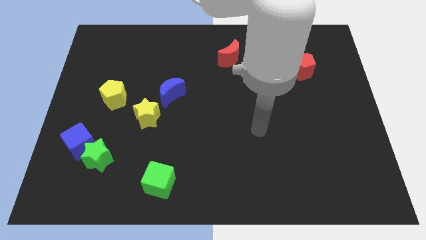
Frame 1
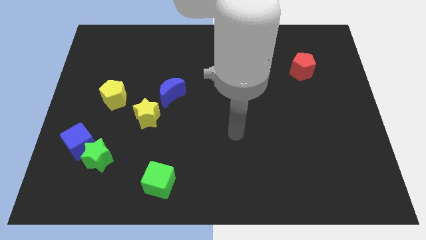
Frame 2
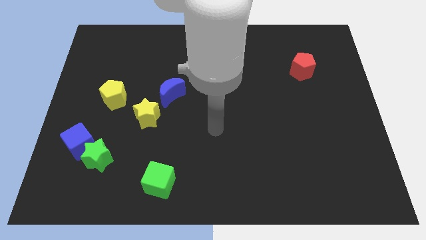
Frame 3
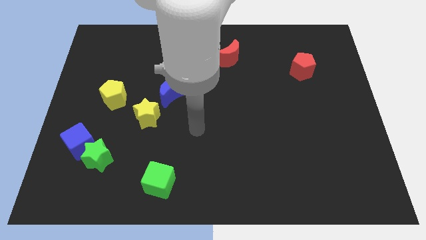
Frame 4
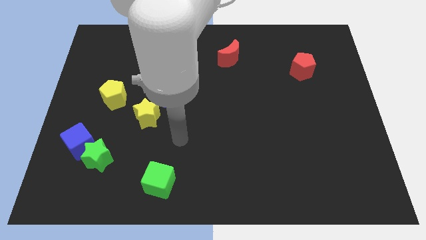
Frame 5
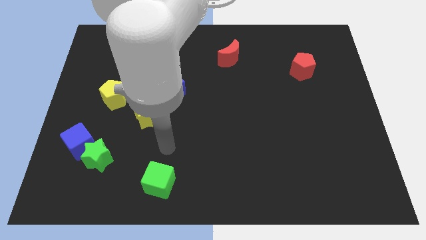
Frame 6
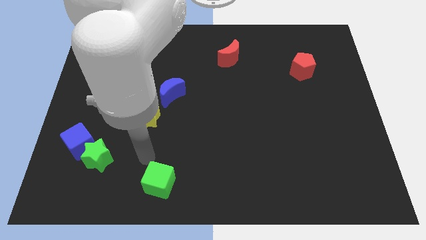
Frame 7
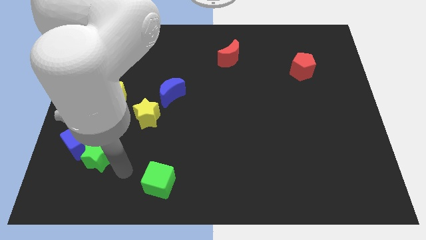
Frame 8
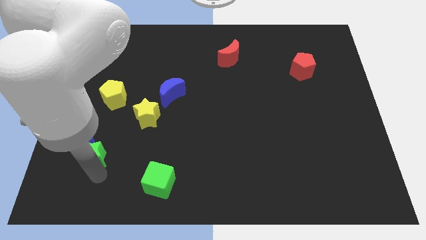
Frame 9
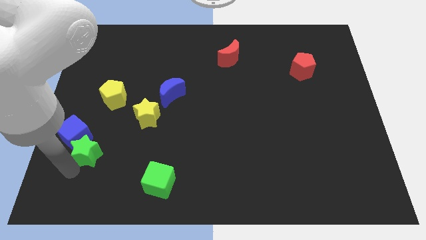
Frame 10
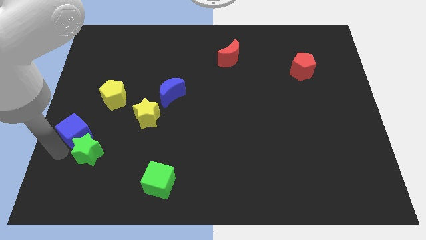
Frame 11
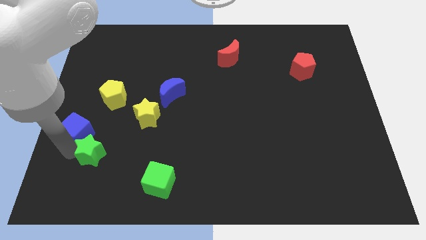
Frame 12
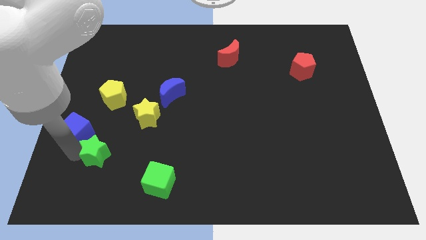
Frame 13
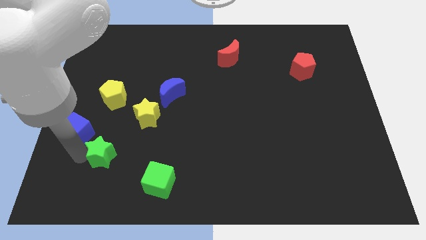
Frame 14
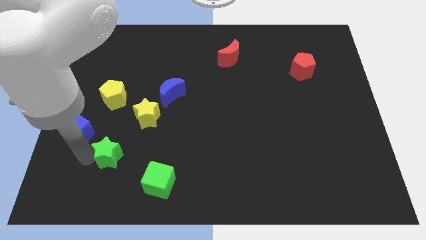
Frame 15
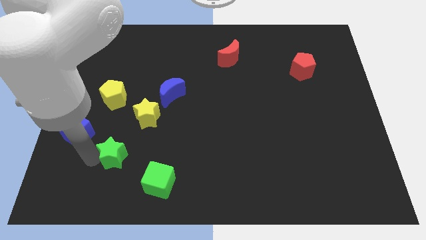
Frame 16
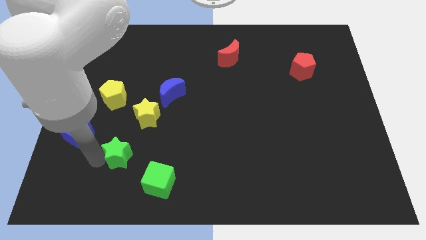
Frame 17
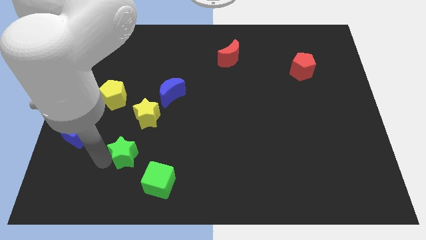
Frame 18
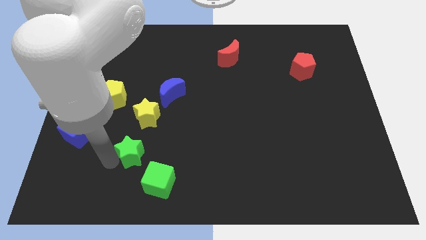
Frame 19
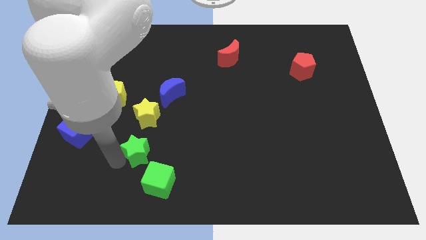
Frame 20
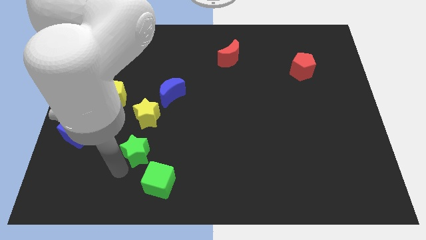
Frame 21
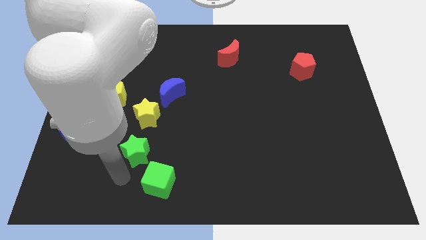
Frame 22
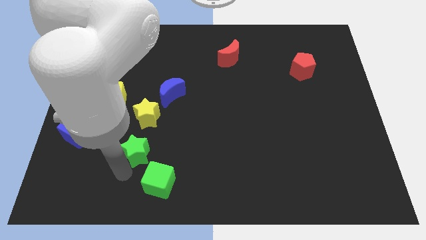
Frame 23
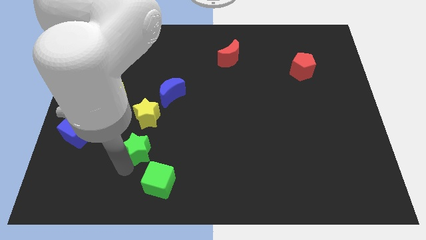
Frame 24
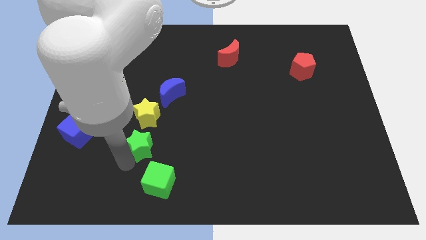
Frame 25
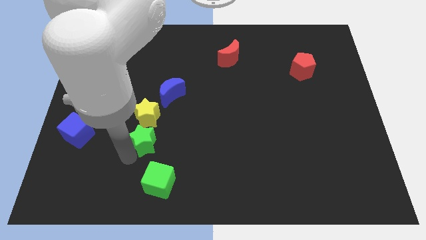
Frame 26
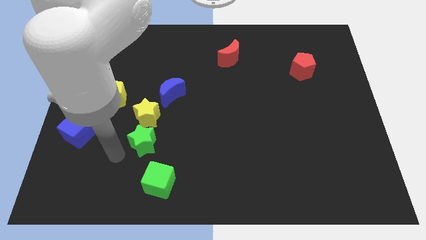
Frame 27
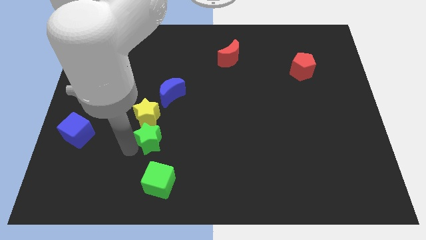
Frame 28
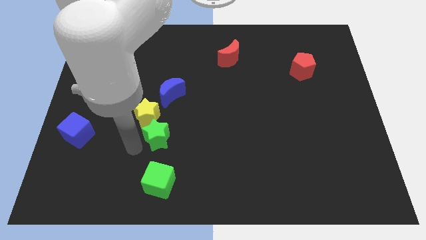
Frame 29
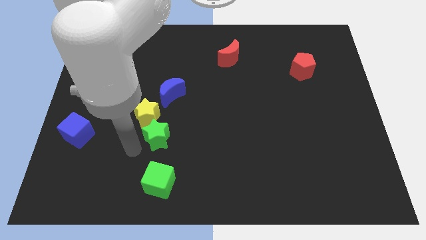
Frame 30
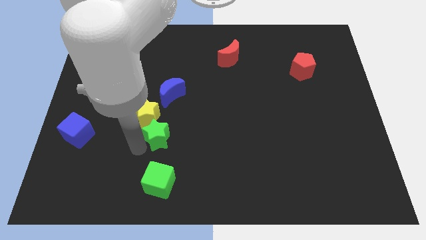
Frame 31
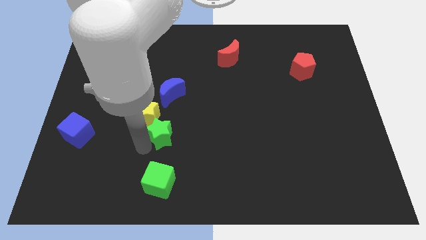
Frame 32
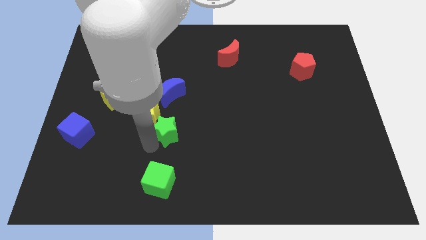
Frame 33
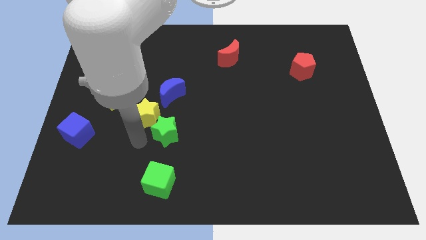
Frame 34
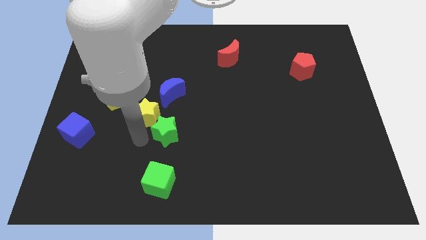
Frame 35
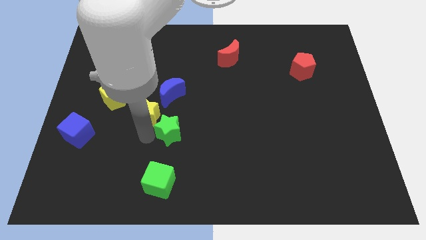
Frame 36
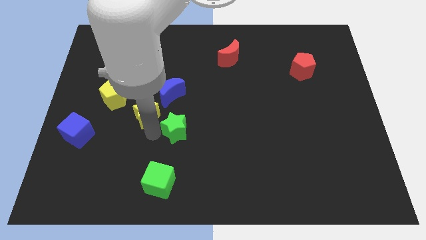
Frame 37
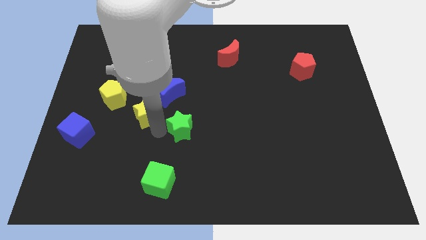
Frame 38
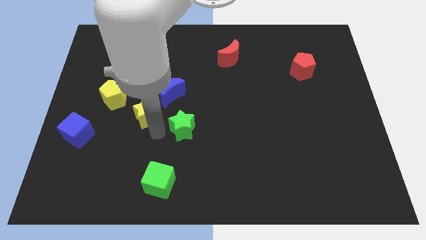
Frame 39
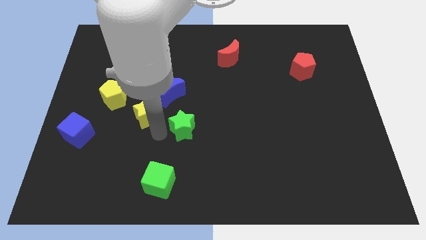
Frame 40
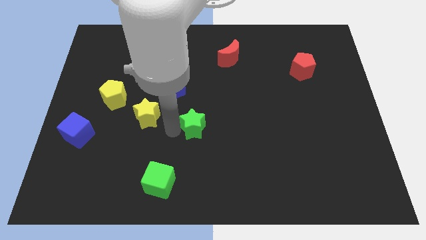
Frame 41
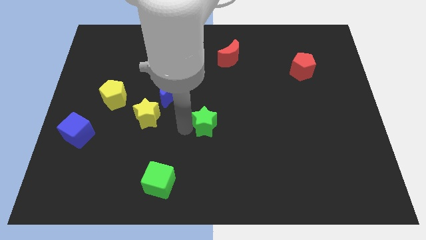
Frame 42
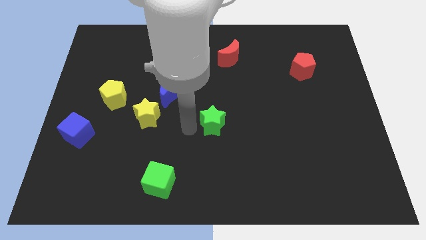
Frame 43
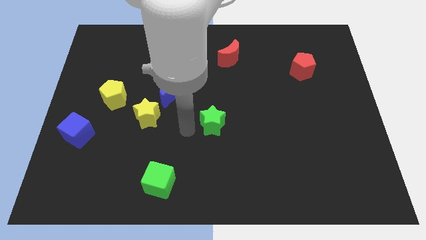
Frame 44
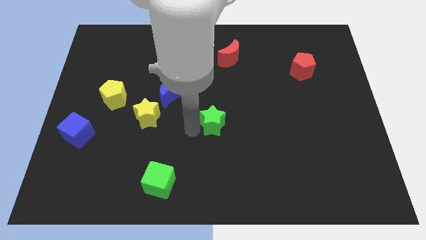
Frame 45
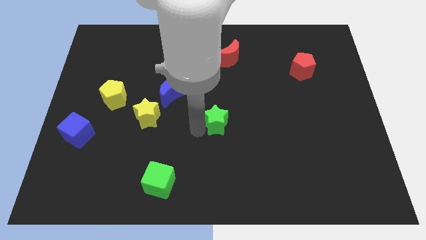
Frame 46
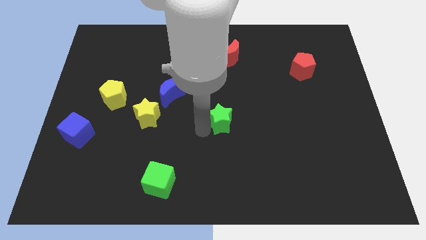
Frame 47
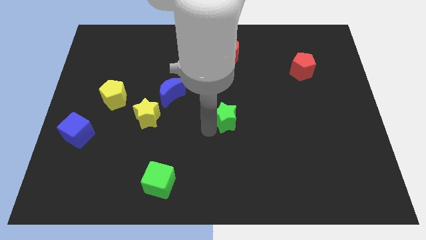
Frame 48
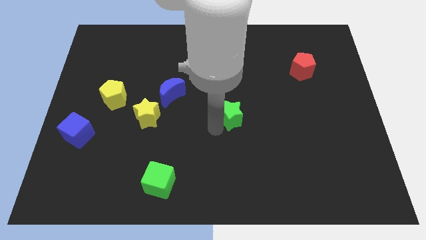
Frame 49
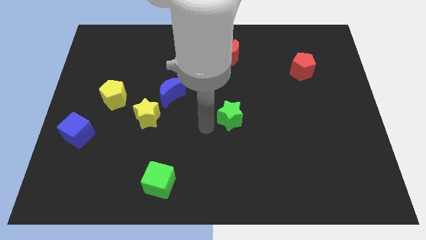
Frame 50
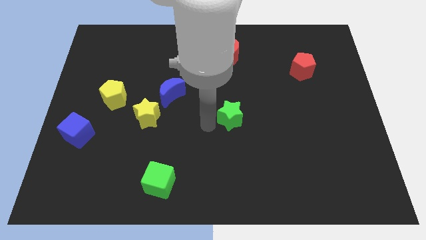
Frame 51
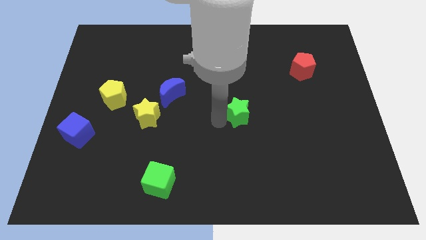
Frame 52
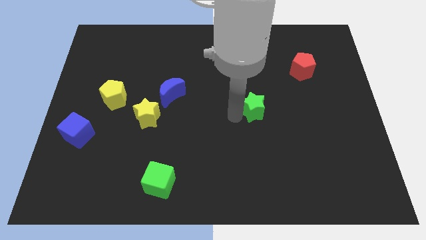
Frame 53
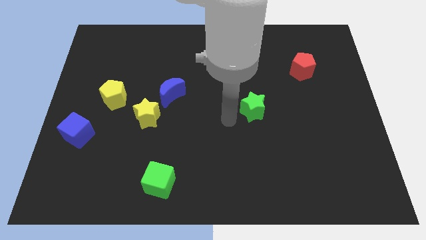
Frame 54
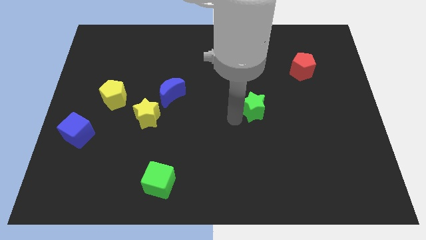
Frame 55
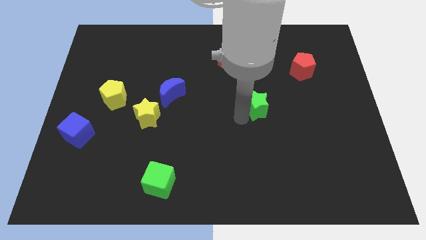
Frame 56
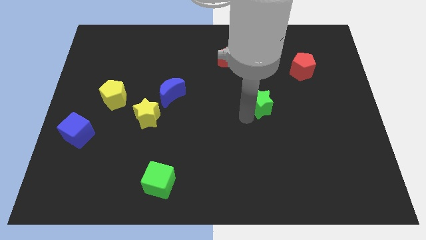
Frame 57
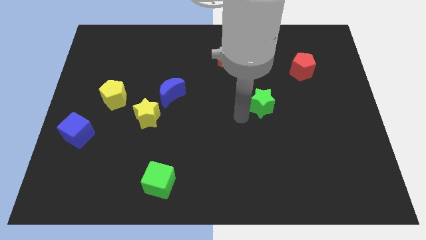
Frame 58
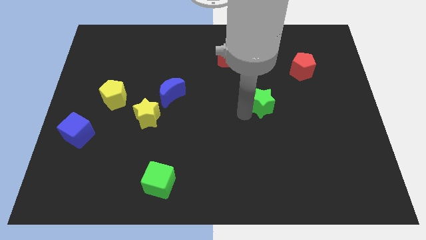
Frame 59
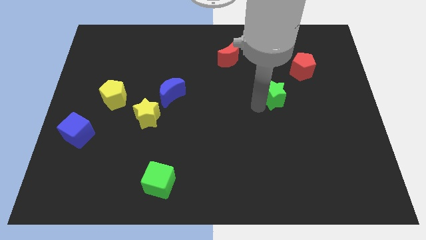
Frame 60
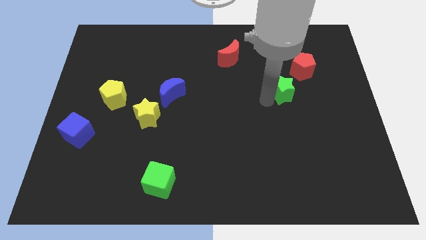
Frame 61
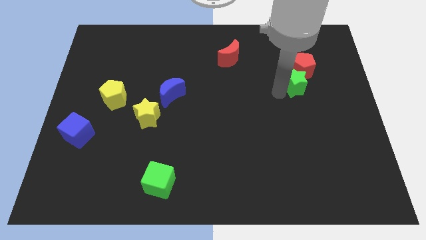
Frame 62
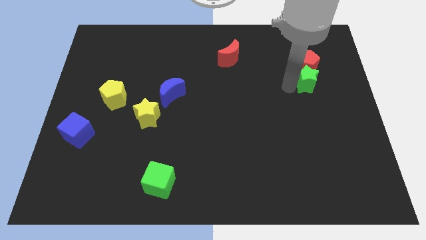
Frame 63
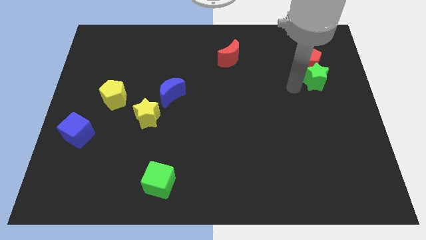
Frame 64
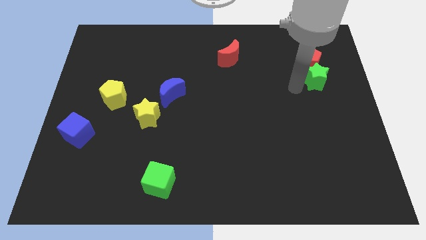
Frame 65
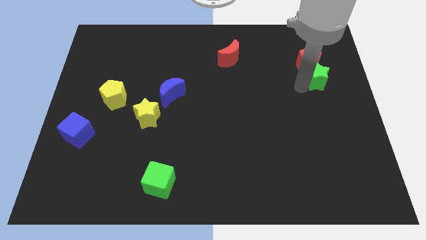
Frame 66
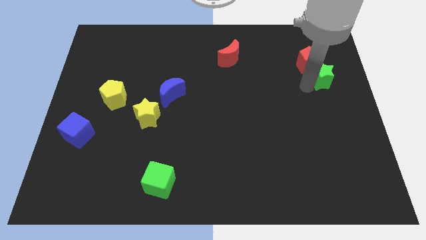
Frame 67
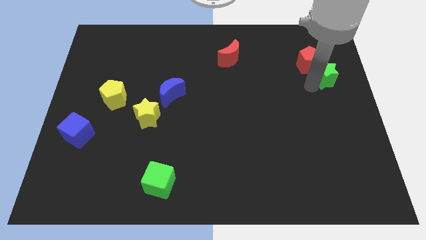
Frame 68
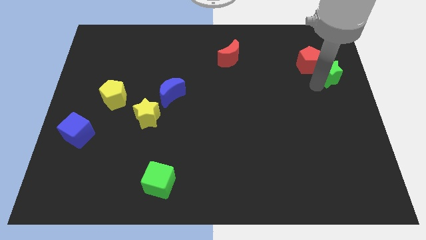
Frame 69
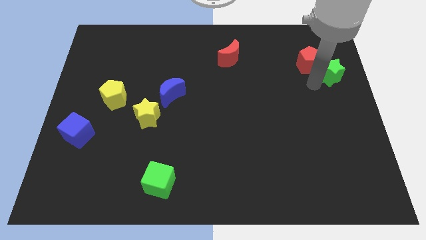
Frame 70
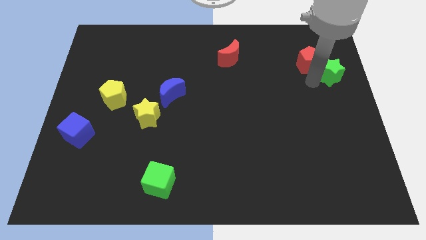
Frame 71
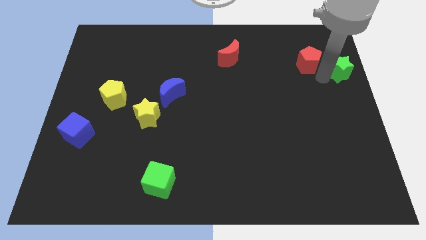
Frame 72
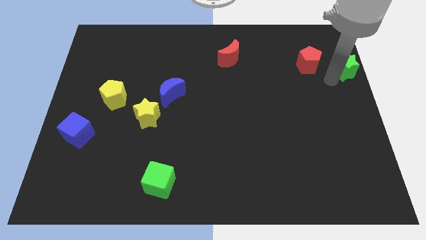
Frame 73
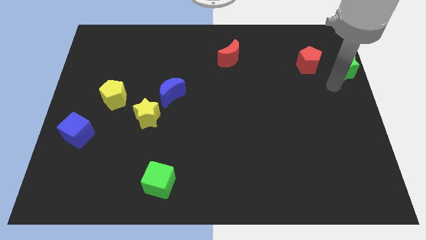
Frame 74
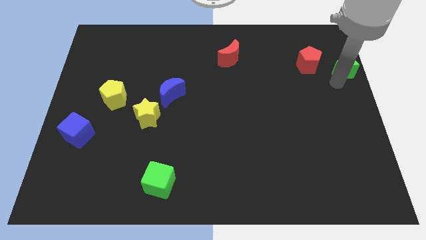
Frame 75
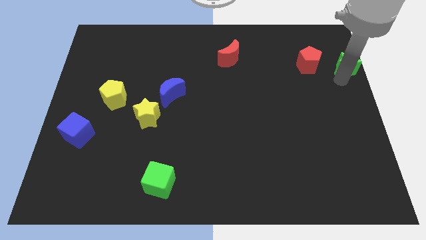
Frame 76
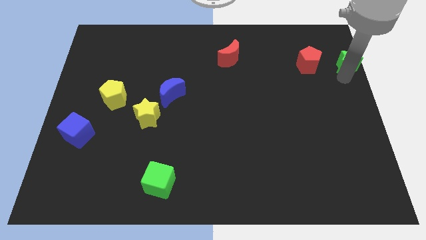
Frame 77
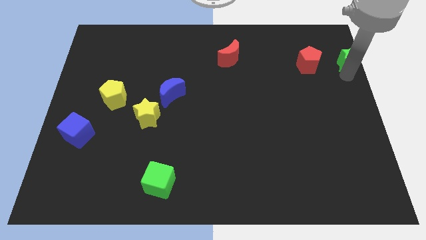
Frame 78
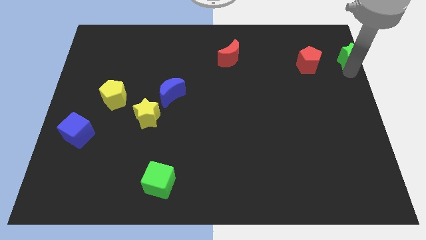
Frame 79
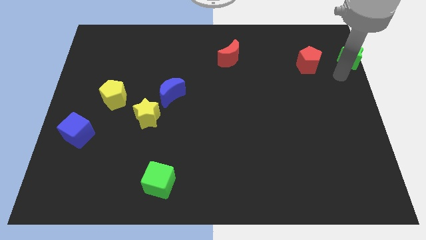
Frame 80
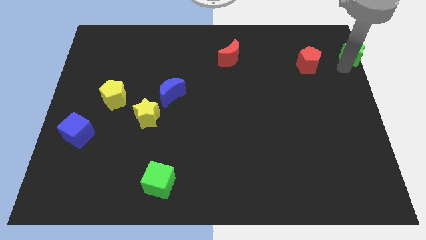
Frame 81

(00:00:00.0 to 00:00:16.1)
push the green star to the top right corner
